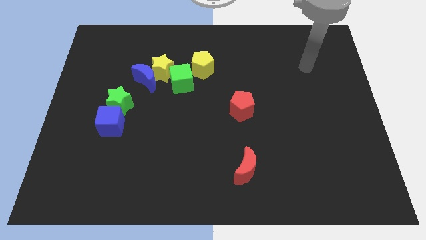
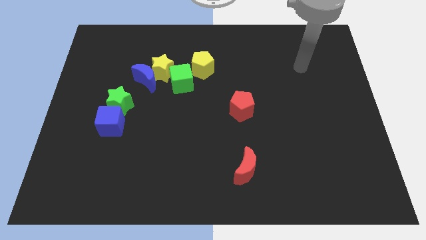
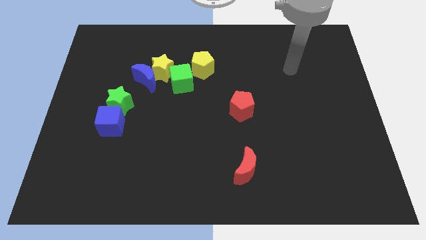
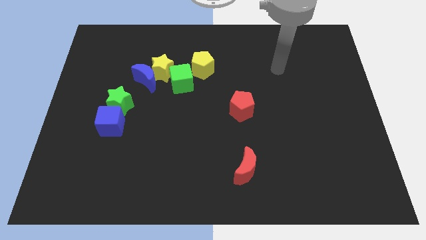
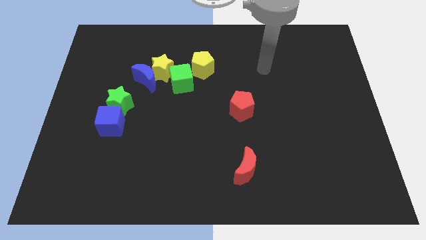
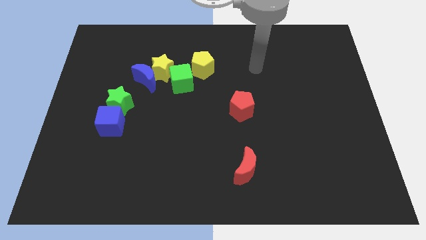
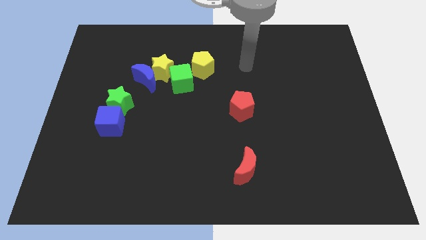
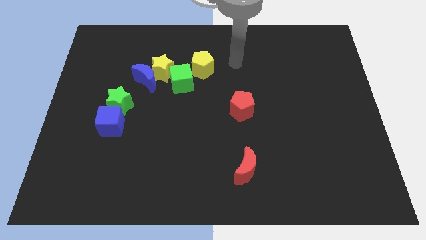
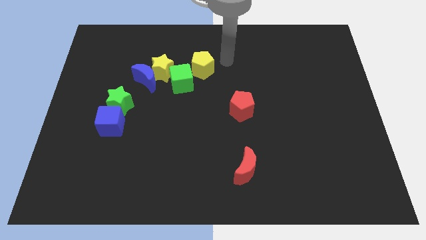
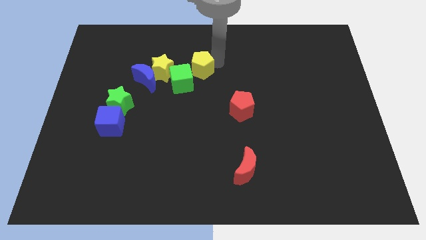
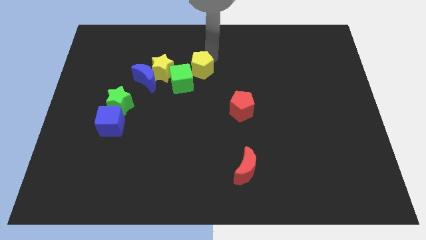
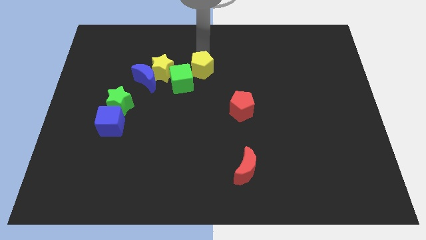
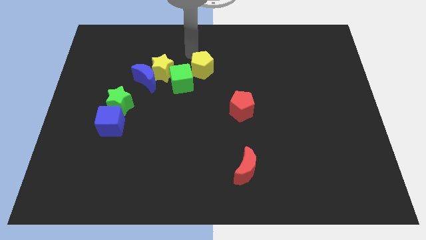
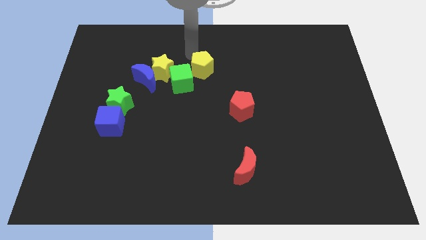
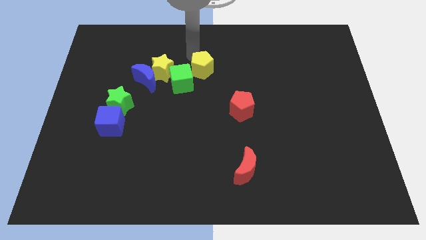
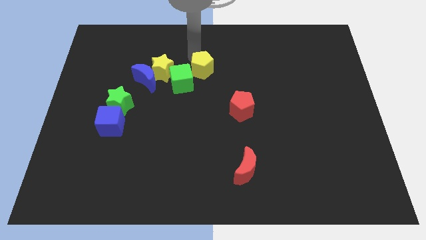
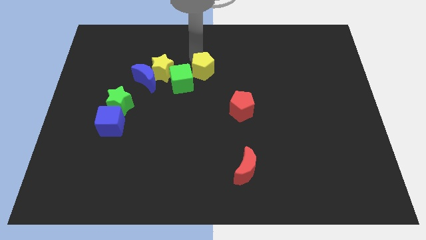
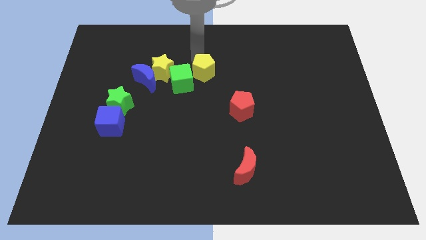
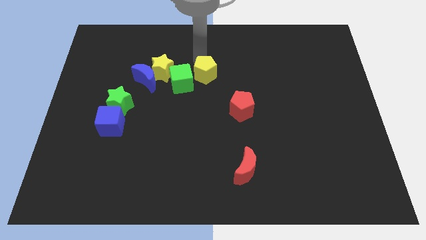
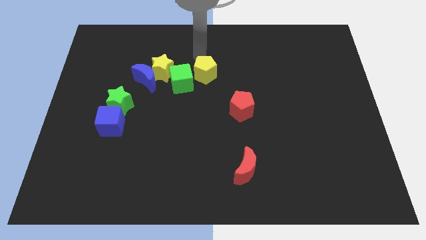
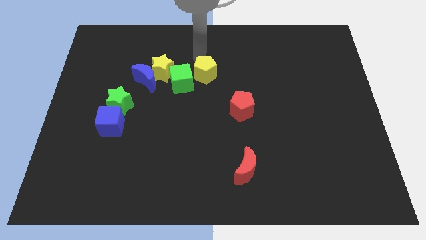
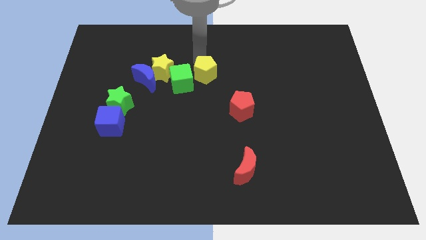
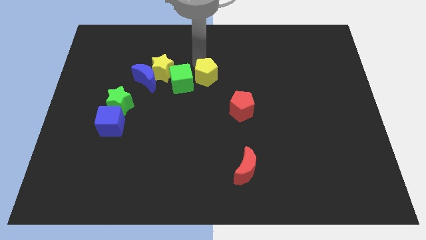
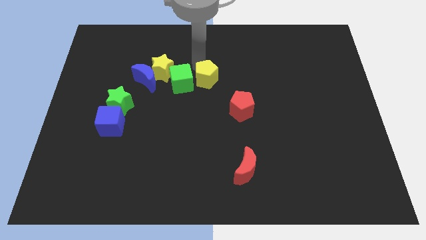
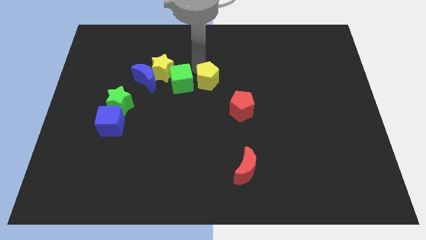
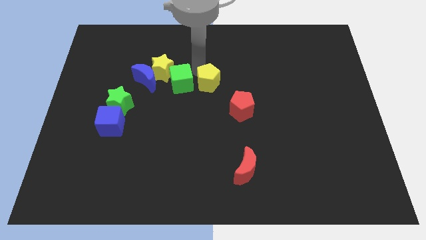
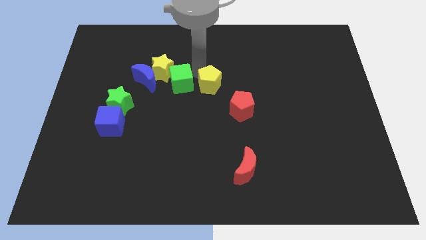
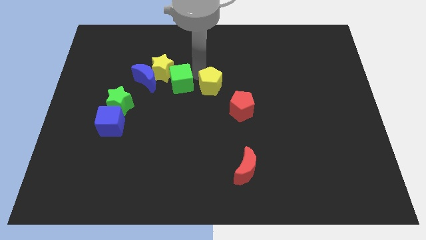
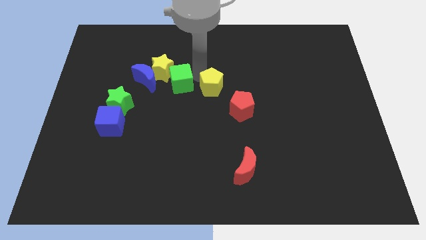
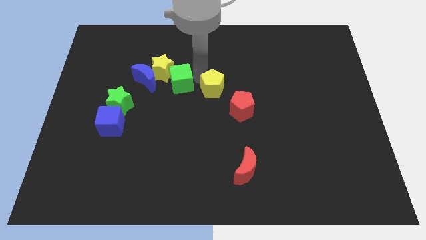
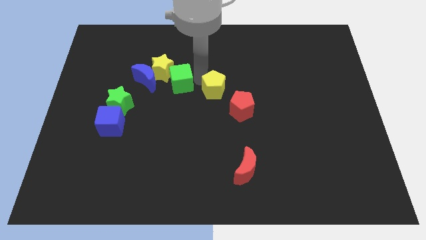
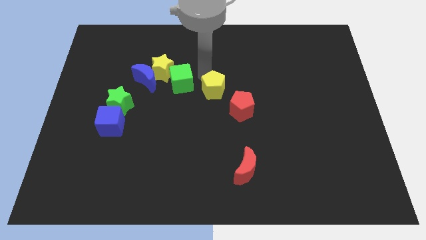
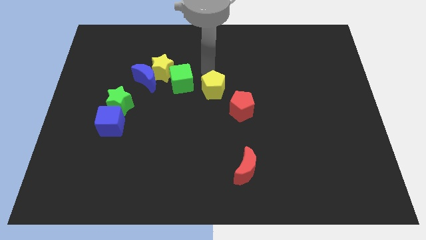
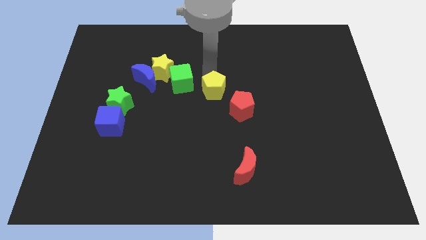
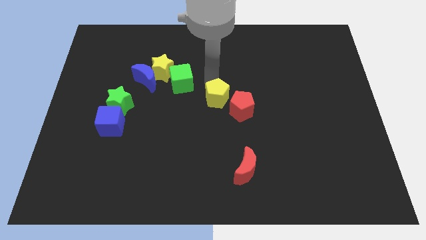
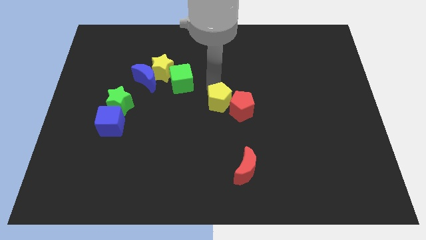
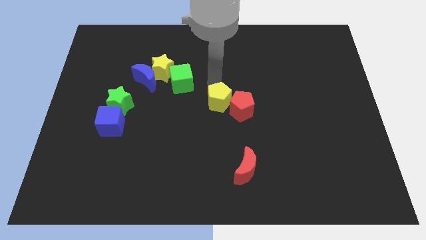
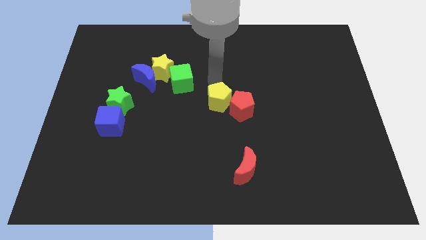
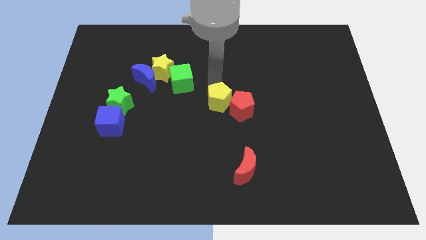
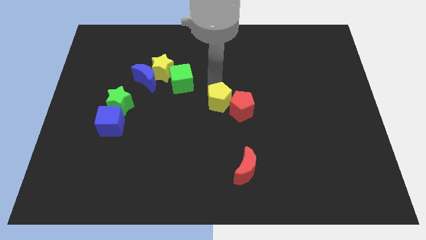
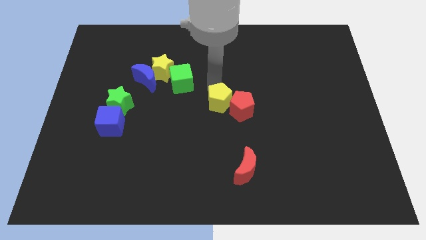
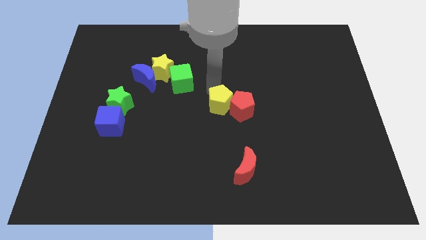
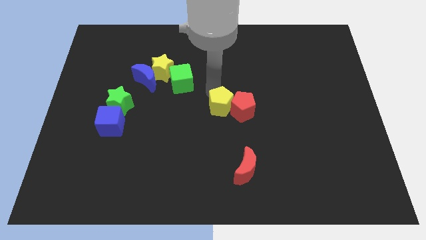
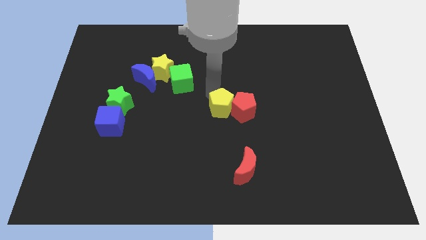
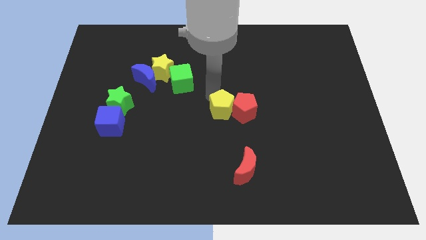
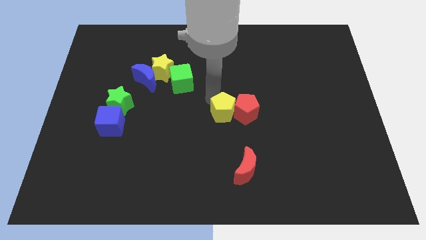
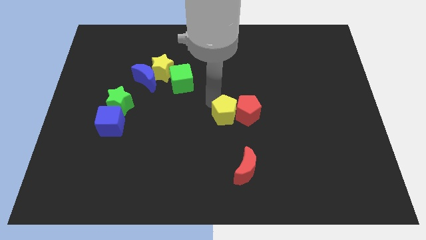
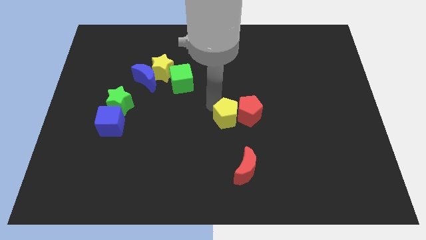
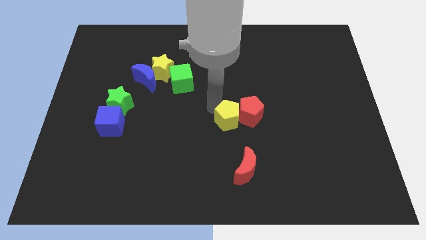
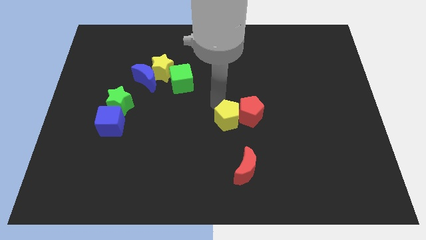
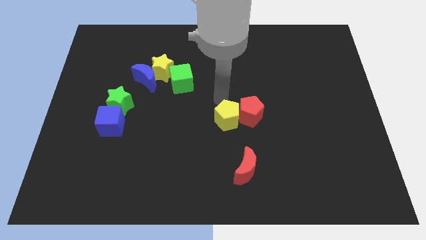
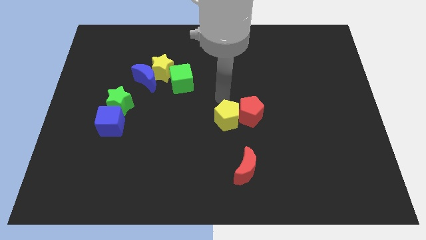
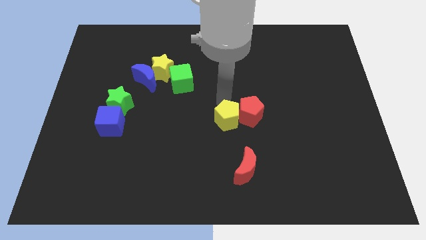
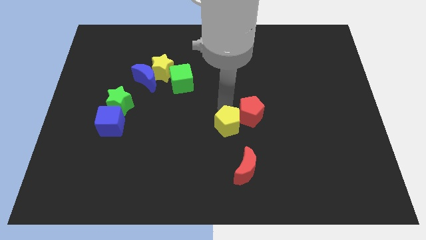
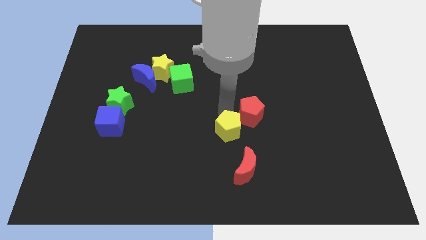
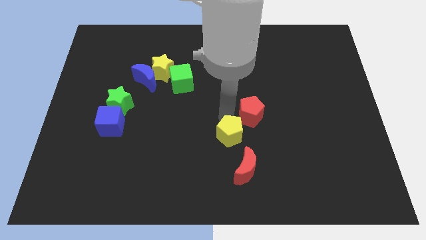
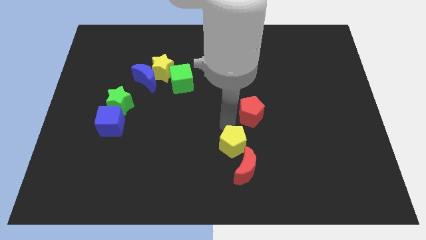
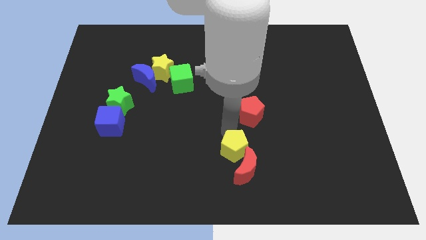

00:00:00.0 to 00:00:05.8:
move the yellow pentagon next to the red moon

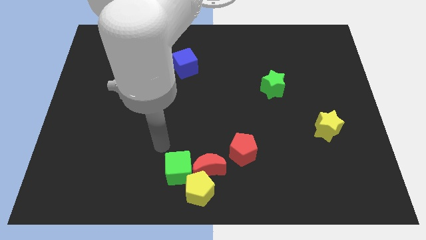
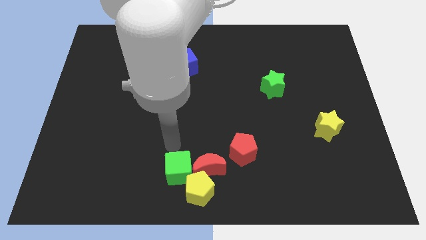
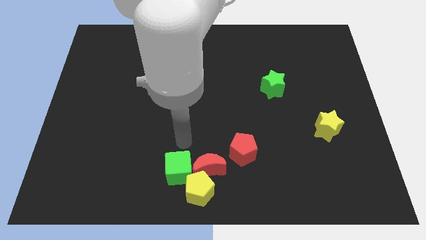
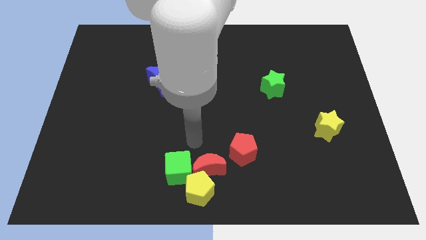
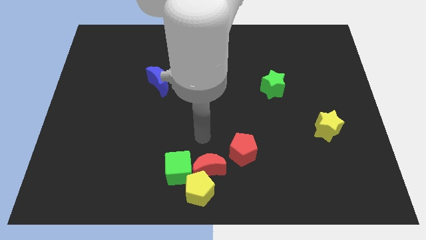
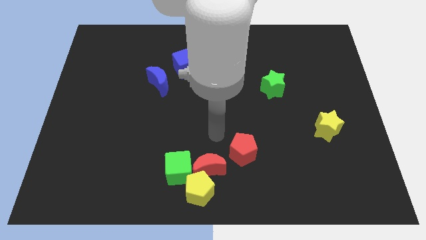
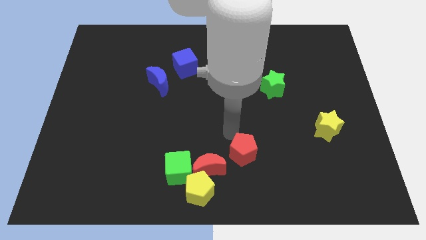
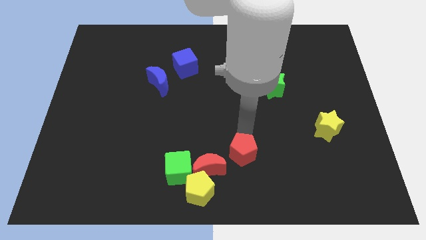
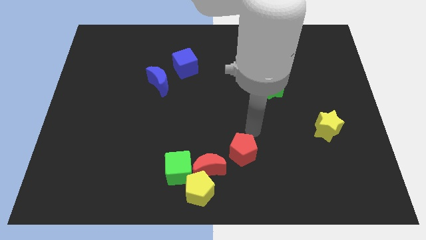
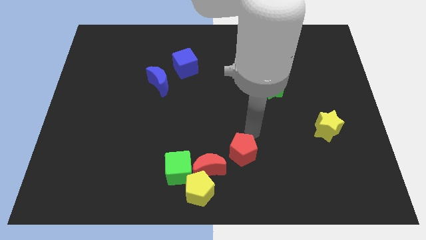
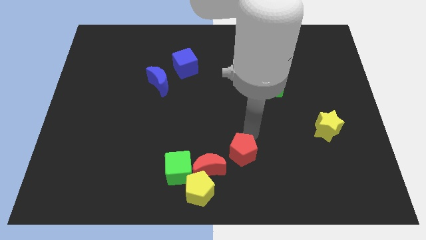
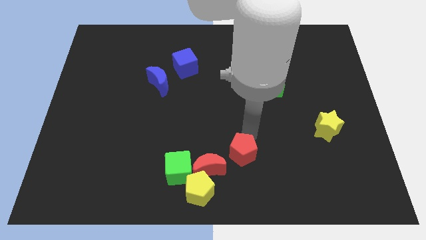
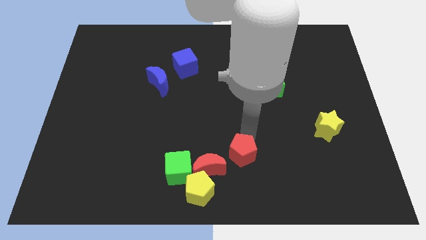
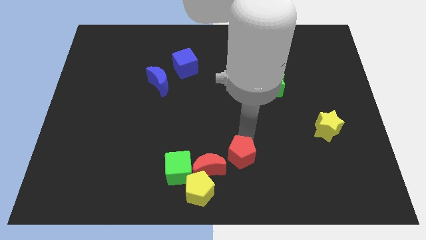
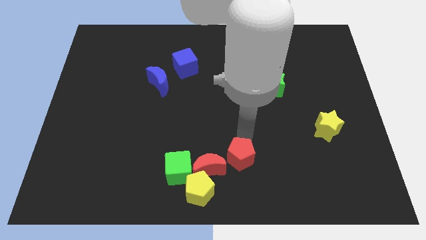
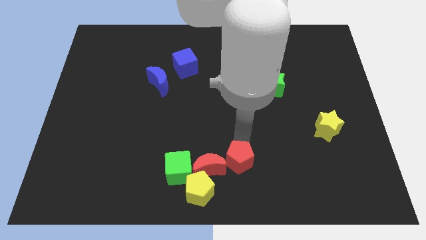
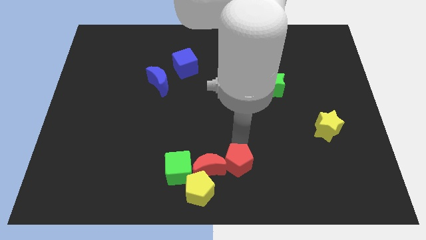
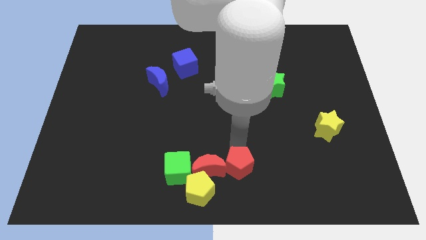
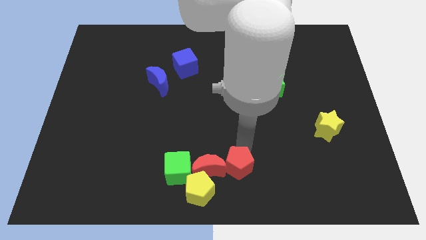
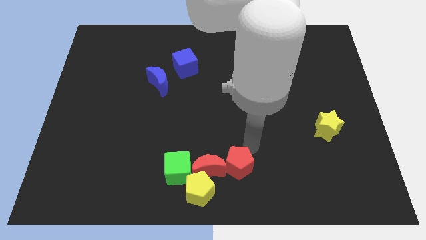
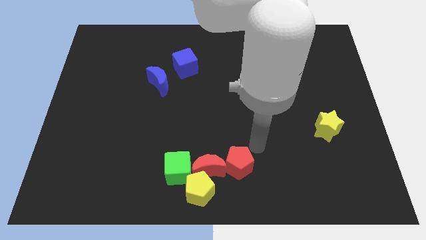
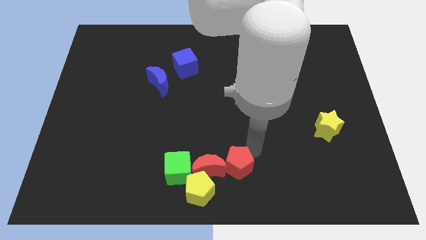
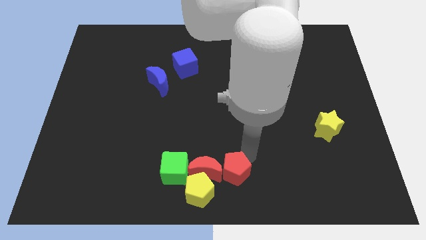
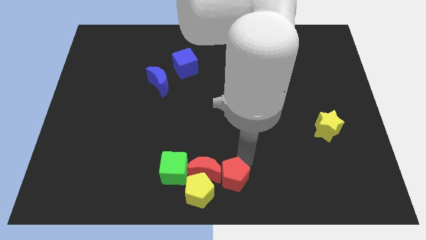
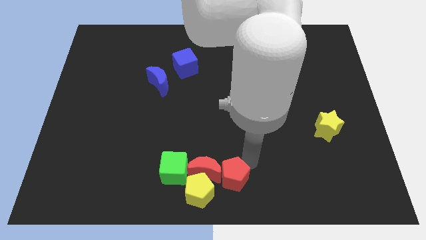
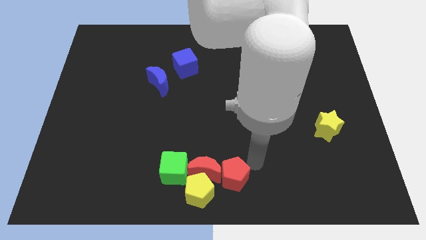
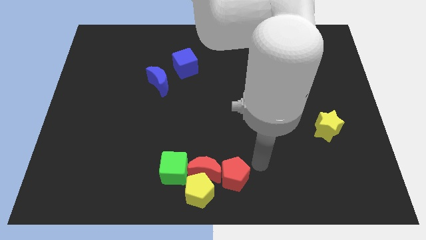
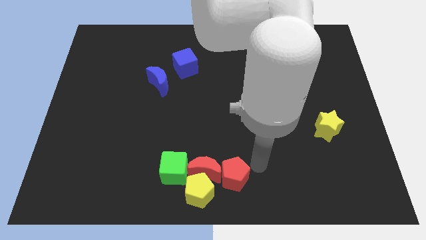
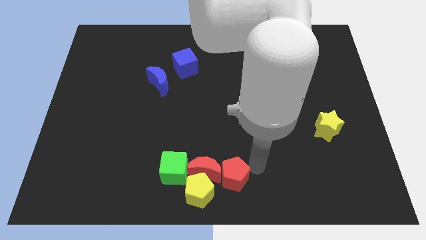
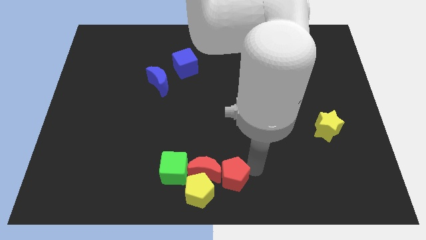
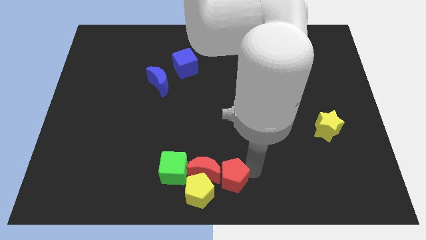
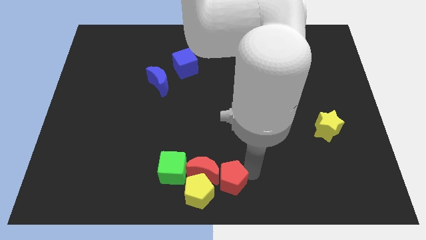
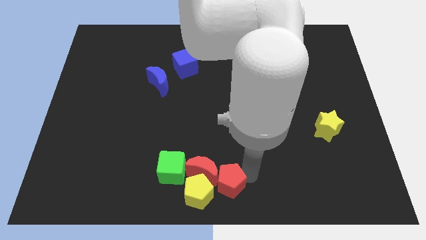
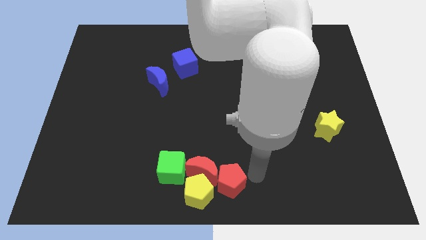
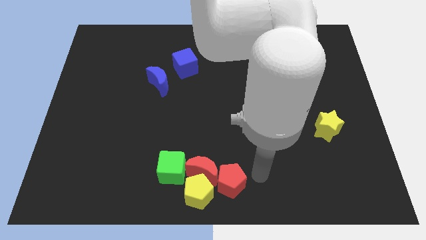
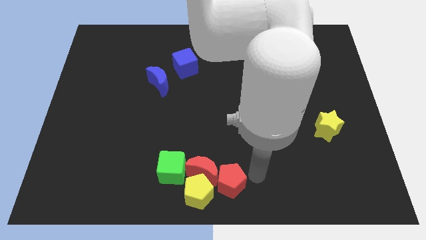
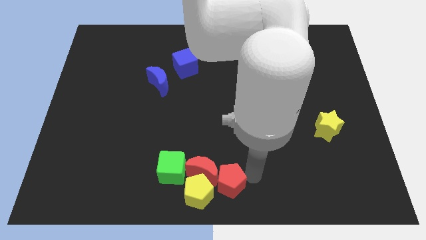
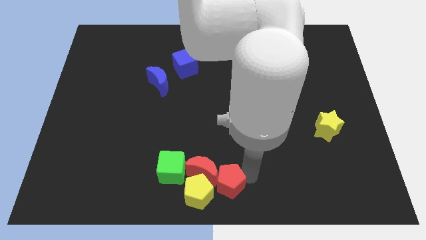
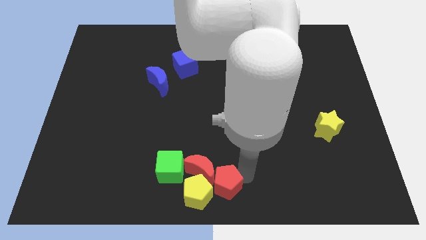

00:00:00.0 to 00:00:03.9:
move the red pentagon next to the yellow pentagon
